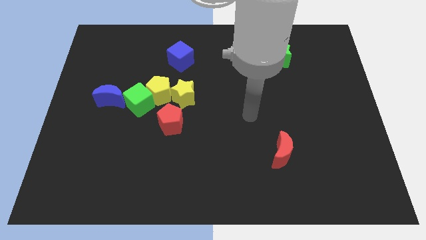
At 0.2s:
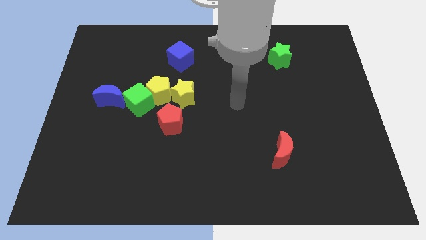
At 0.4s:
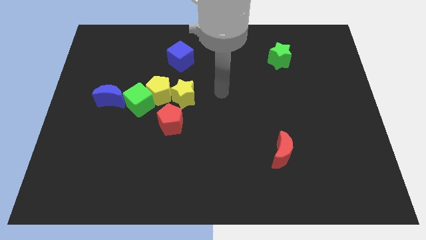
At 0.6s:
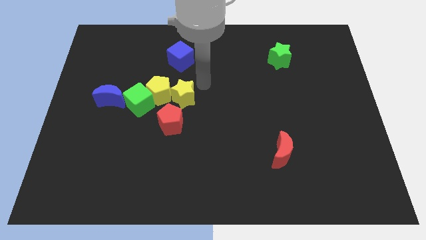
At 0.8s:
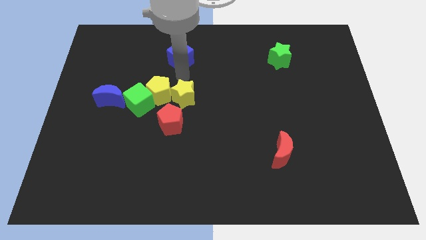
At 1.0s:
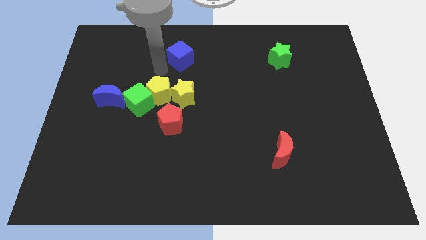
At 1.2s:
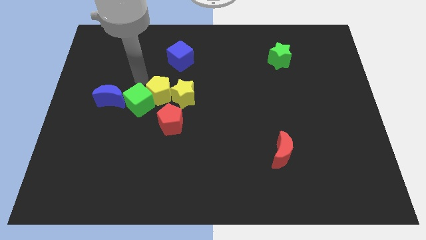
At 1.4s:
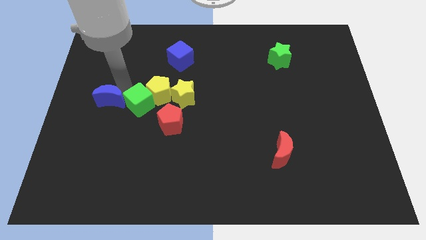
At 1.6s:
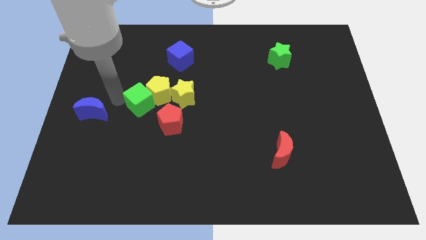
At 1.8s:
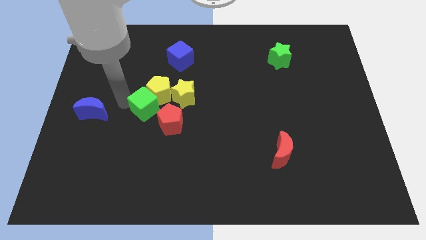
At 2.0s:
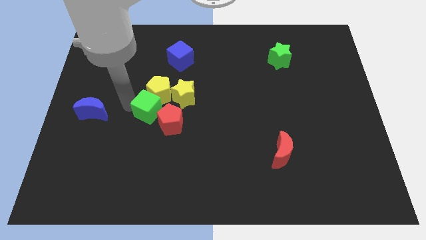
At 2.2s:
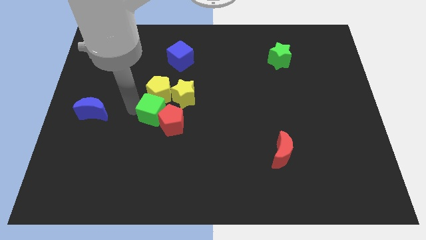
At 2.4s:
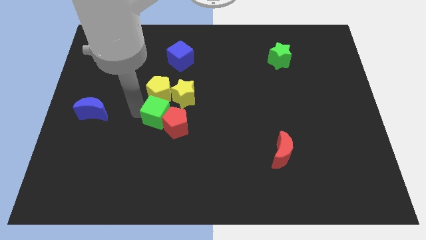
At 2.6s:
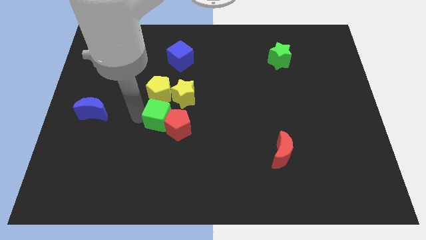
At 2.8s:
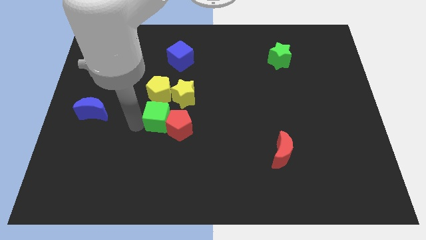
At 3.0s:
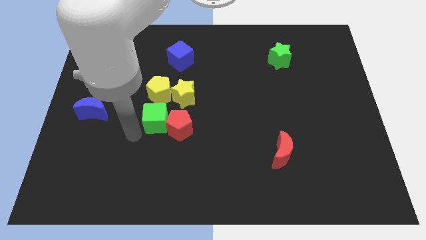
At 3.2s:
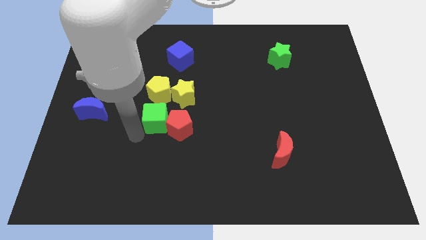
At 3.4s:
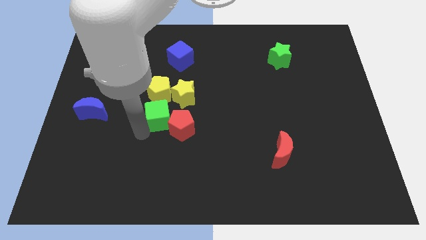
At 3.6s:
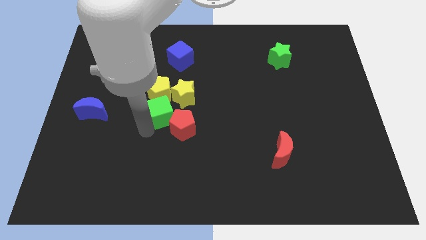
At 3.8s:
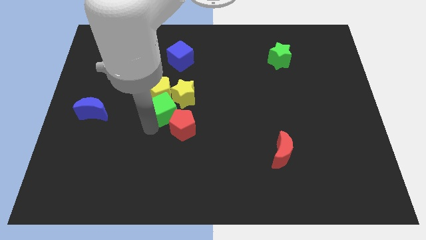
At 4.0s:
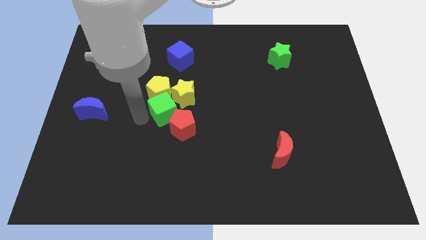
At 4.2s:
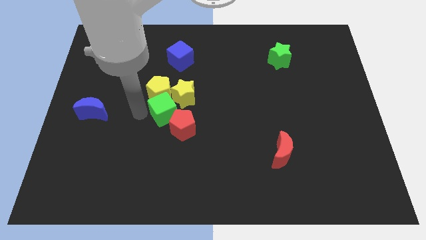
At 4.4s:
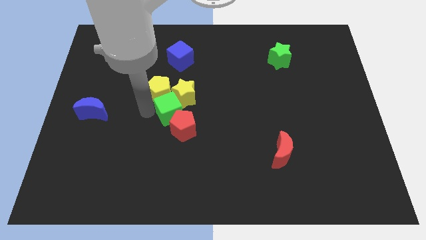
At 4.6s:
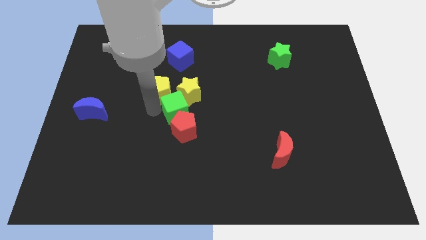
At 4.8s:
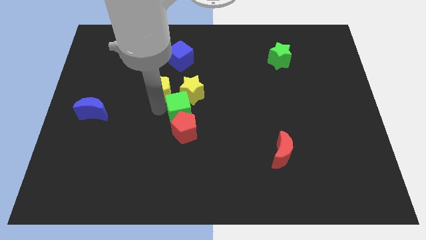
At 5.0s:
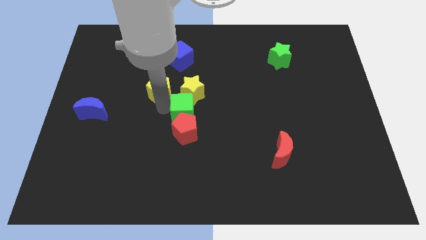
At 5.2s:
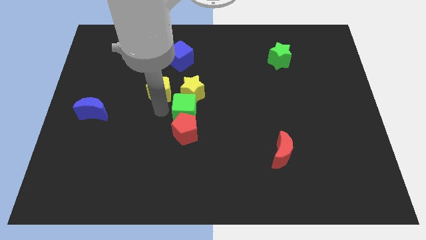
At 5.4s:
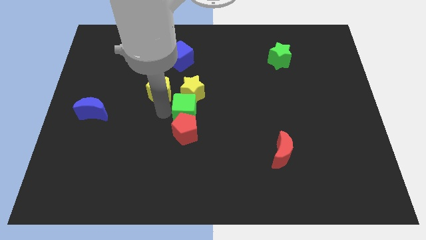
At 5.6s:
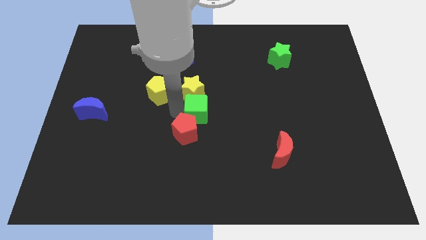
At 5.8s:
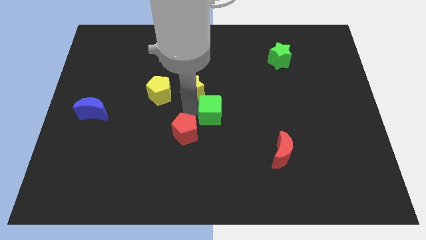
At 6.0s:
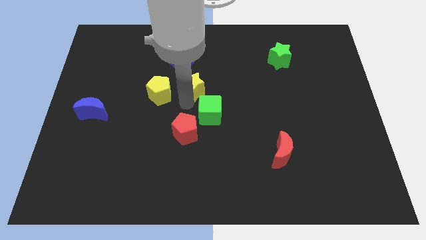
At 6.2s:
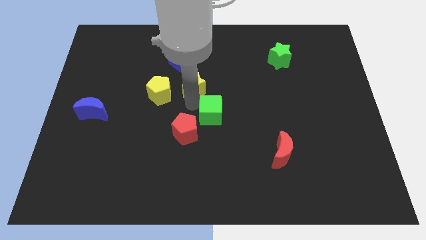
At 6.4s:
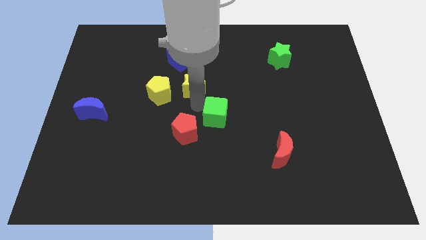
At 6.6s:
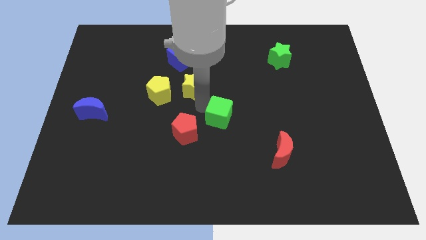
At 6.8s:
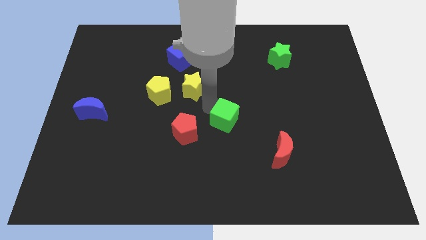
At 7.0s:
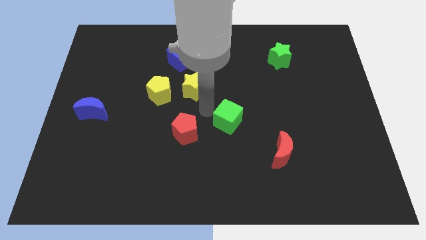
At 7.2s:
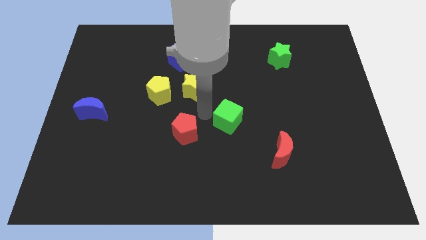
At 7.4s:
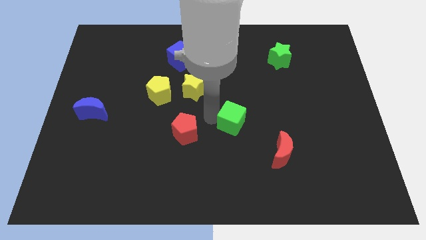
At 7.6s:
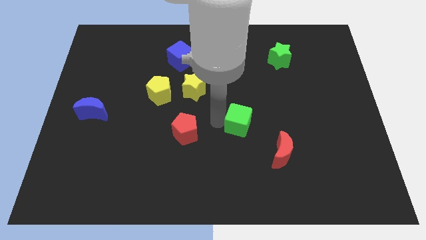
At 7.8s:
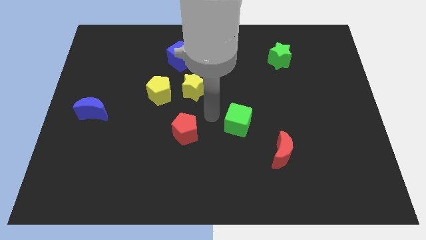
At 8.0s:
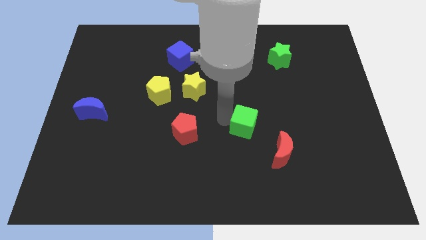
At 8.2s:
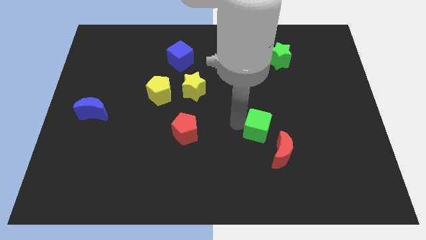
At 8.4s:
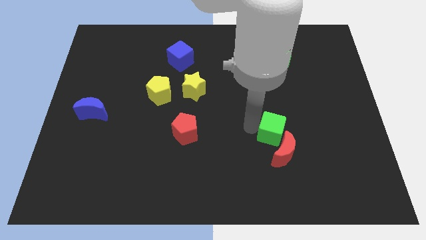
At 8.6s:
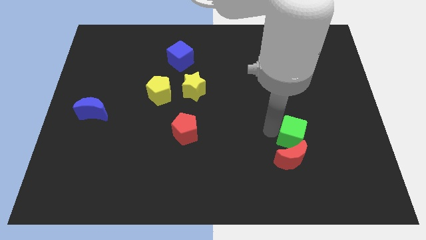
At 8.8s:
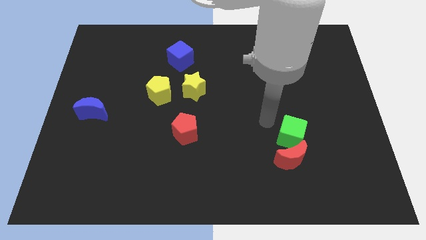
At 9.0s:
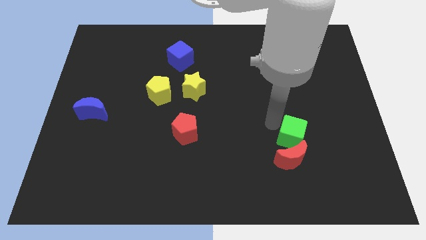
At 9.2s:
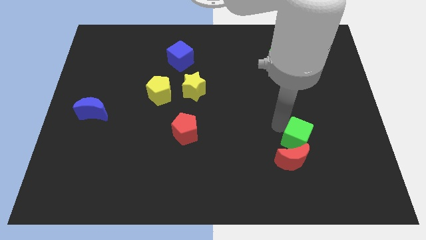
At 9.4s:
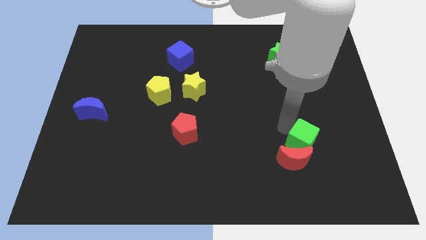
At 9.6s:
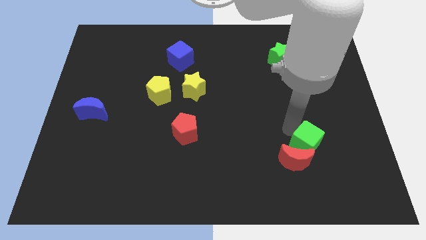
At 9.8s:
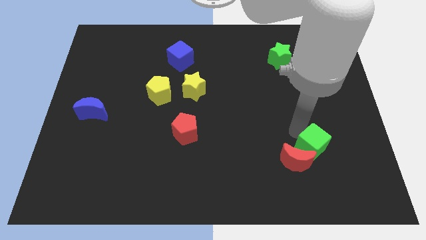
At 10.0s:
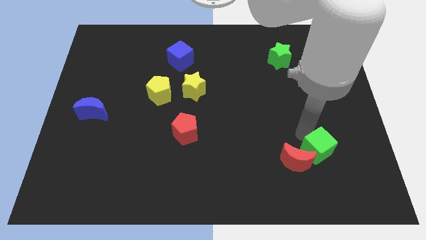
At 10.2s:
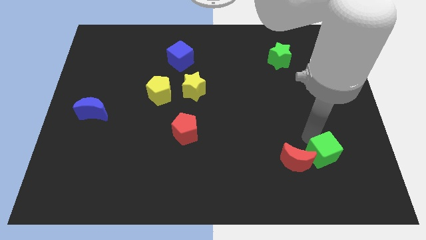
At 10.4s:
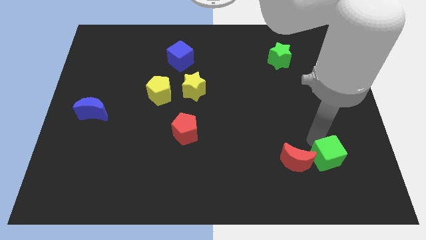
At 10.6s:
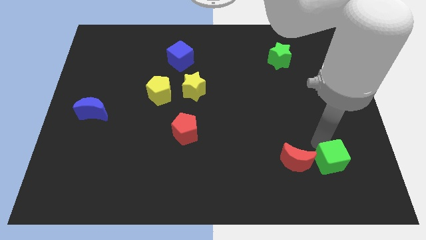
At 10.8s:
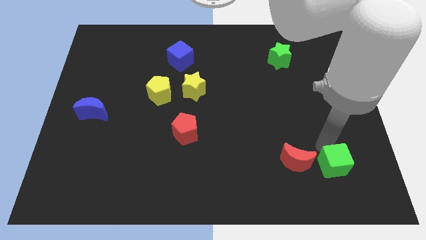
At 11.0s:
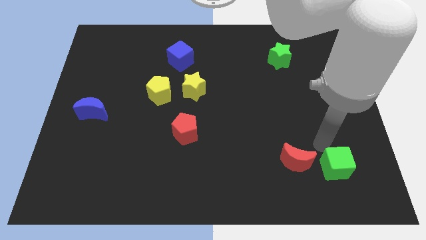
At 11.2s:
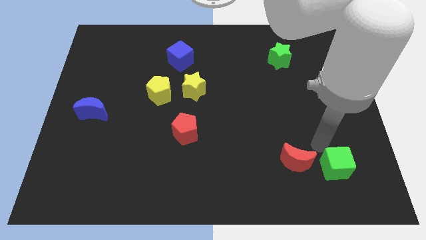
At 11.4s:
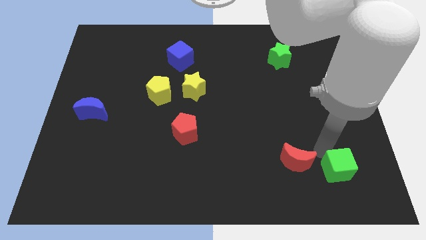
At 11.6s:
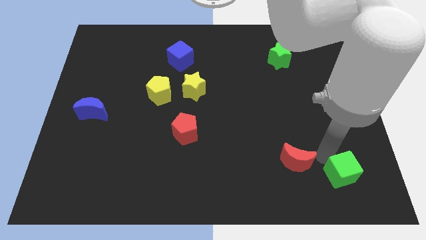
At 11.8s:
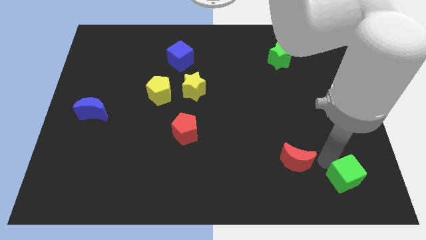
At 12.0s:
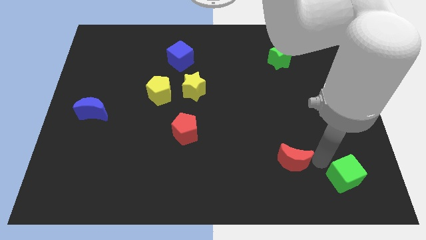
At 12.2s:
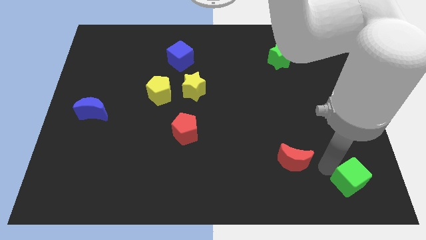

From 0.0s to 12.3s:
put the green cube to the bottom right

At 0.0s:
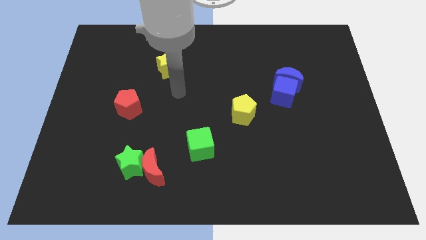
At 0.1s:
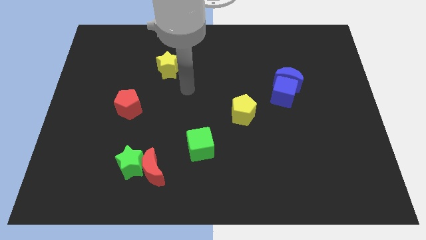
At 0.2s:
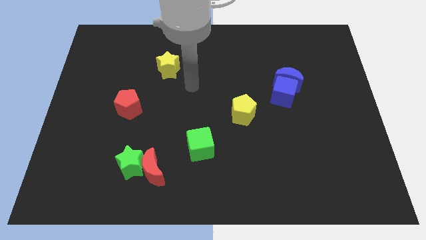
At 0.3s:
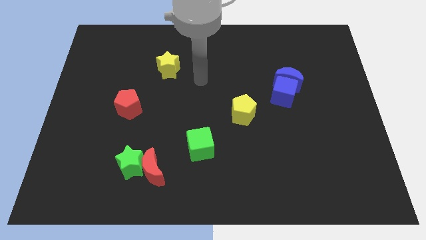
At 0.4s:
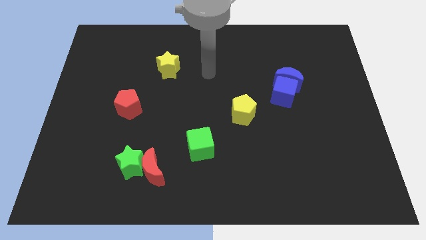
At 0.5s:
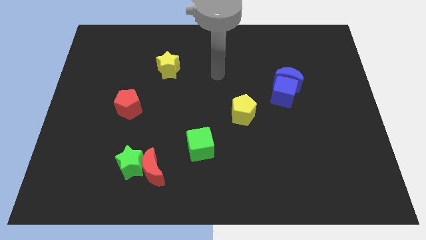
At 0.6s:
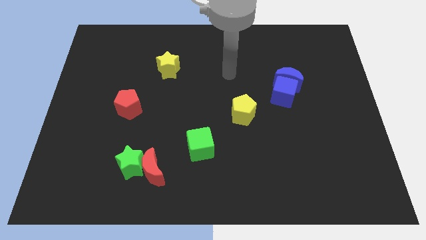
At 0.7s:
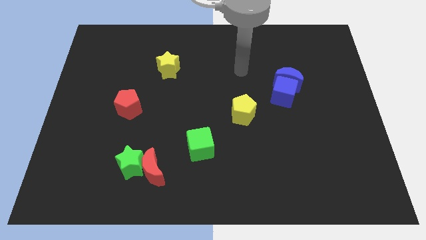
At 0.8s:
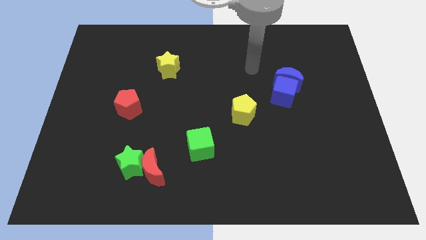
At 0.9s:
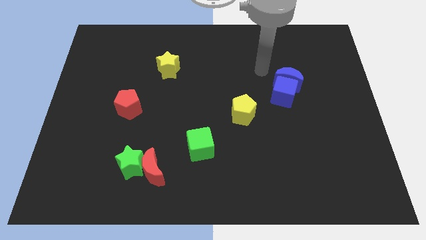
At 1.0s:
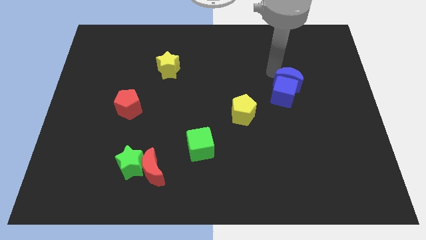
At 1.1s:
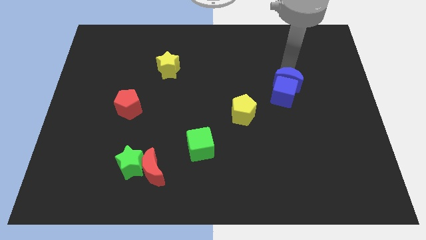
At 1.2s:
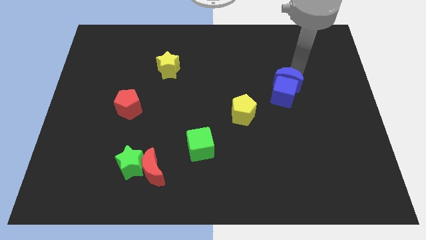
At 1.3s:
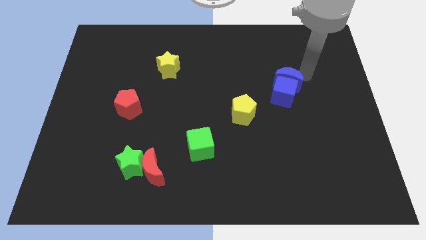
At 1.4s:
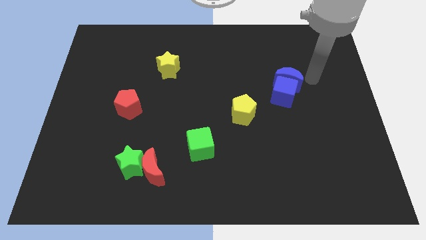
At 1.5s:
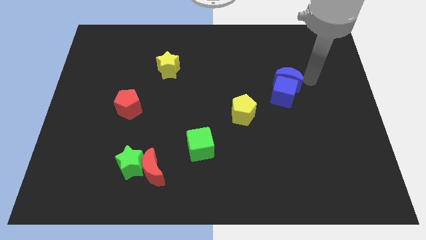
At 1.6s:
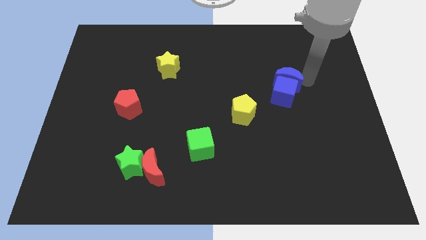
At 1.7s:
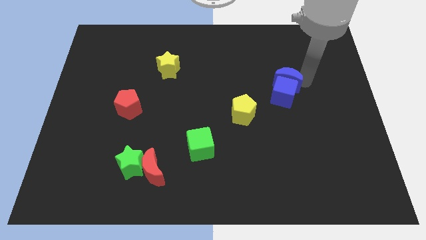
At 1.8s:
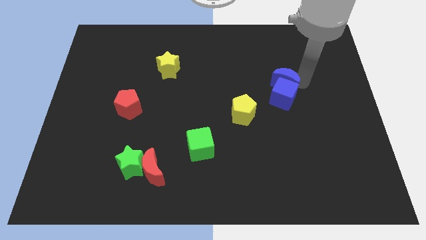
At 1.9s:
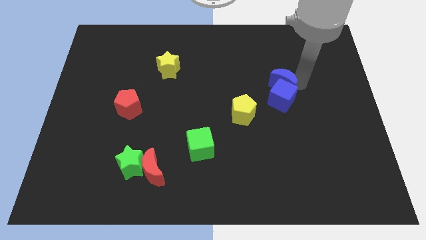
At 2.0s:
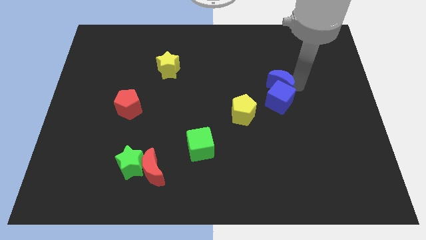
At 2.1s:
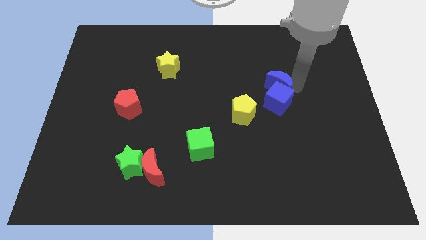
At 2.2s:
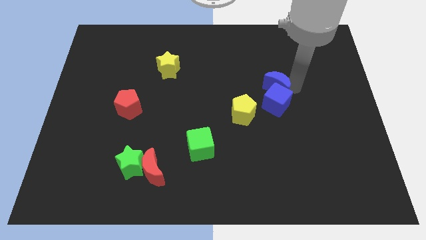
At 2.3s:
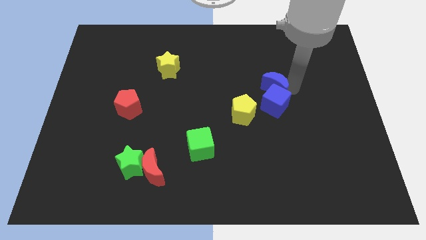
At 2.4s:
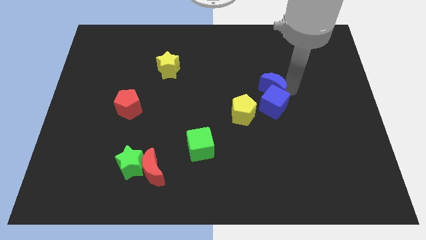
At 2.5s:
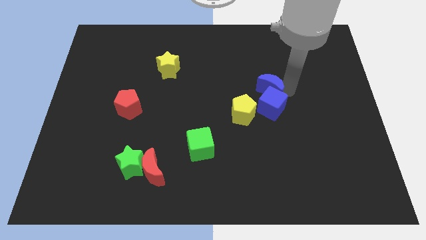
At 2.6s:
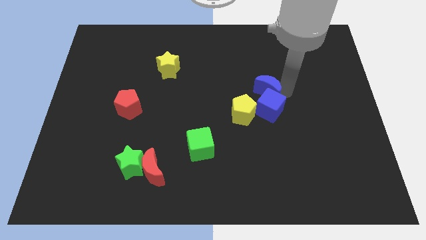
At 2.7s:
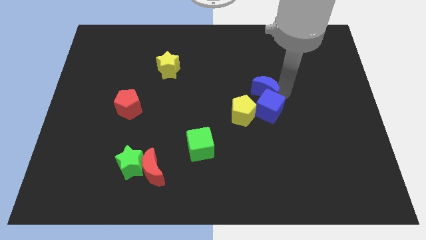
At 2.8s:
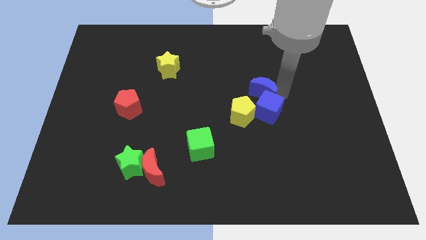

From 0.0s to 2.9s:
move the blue moon to the middle
